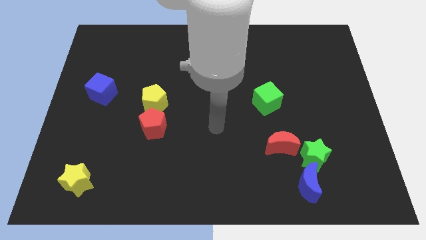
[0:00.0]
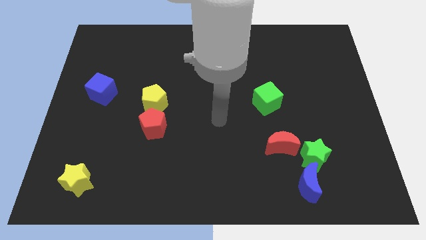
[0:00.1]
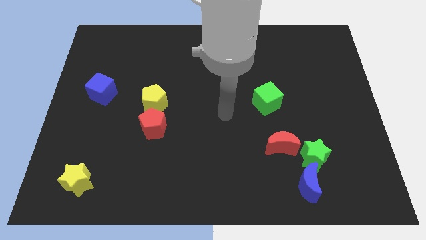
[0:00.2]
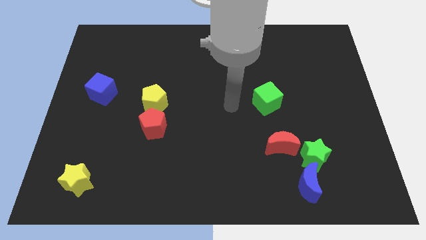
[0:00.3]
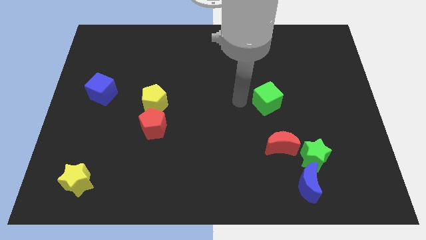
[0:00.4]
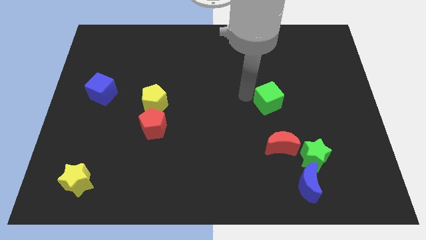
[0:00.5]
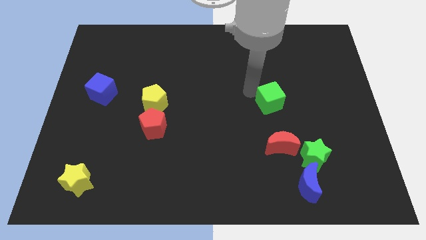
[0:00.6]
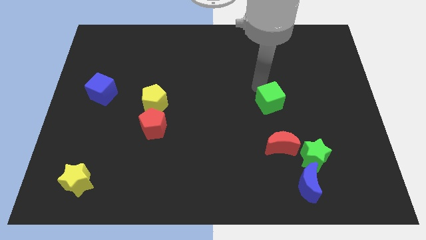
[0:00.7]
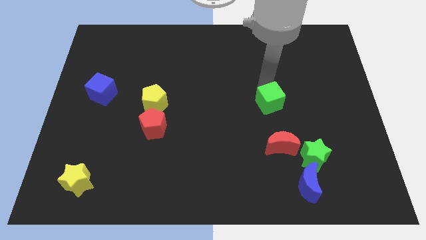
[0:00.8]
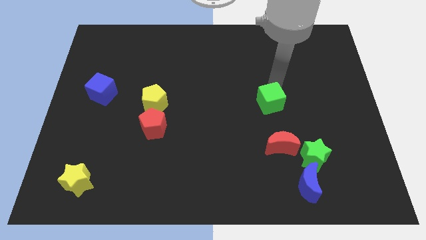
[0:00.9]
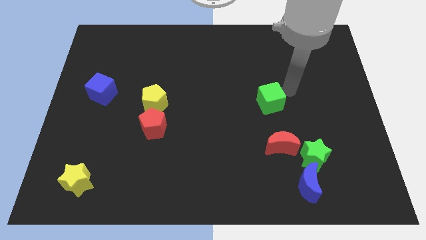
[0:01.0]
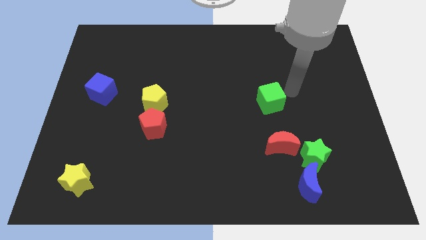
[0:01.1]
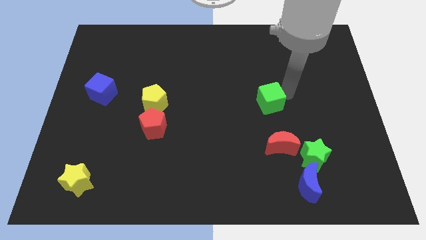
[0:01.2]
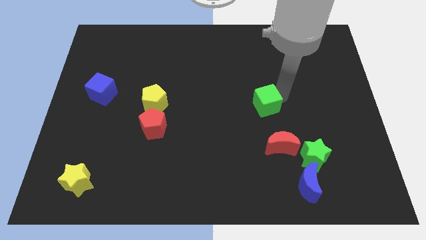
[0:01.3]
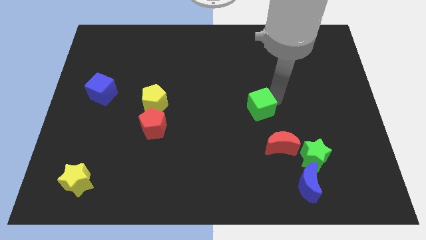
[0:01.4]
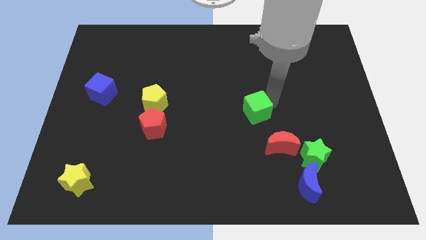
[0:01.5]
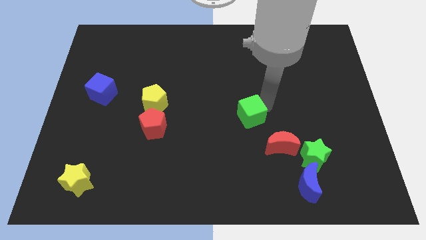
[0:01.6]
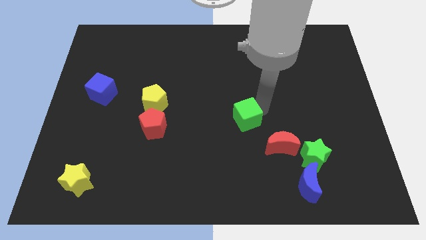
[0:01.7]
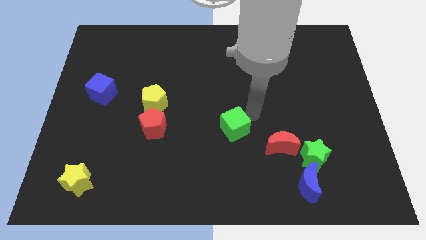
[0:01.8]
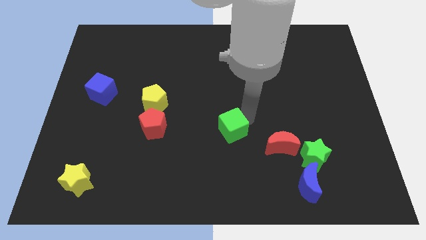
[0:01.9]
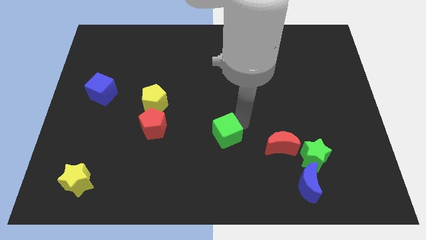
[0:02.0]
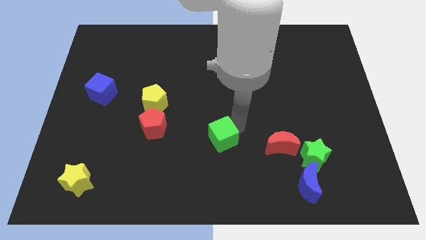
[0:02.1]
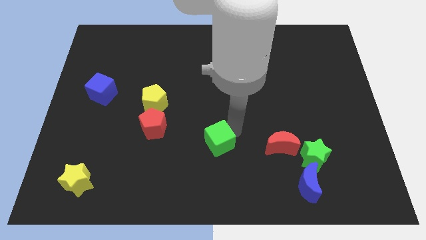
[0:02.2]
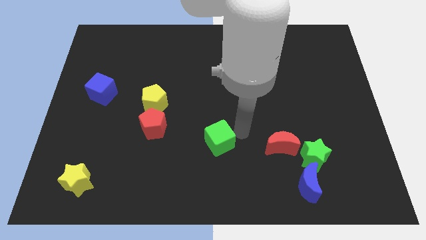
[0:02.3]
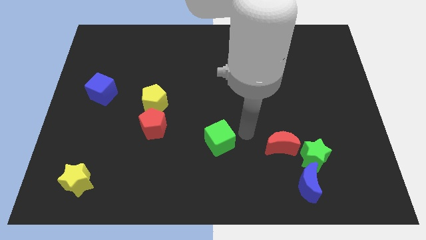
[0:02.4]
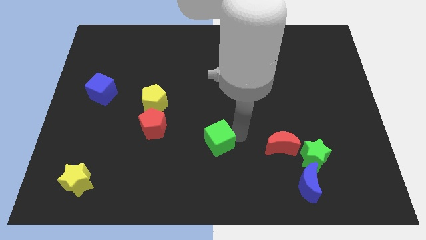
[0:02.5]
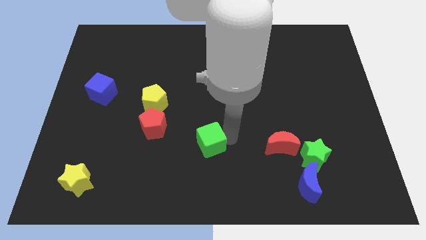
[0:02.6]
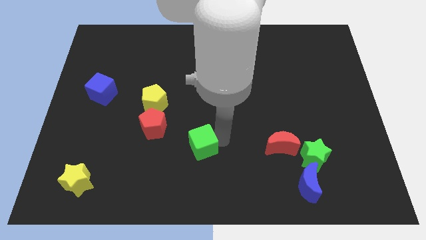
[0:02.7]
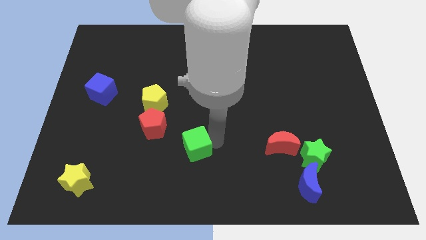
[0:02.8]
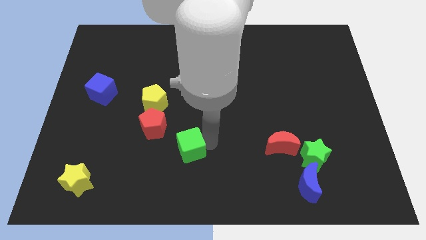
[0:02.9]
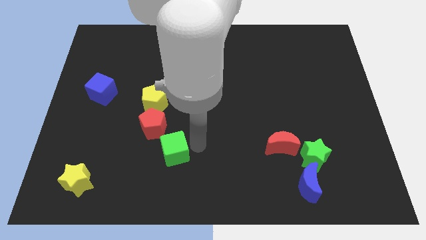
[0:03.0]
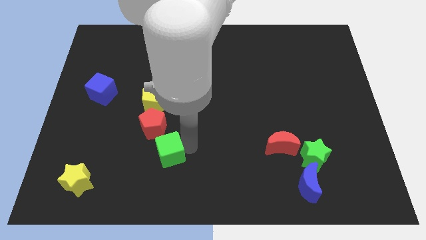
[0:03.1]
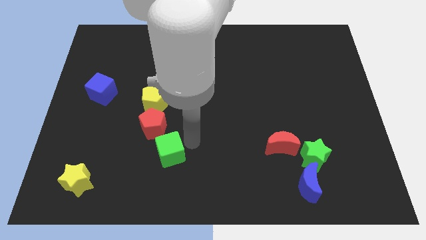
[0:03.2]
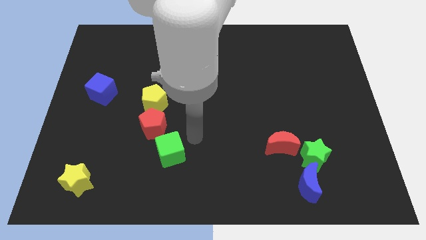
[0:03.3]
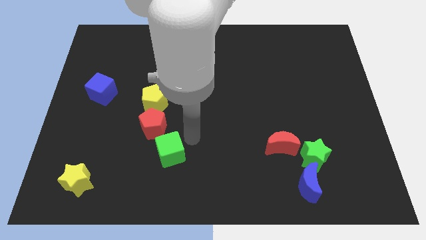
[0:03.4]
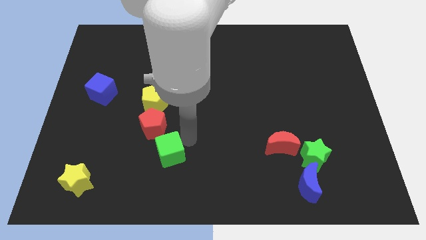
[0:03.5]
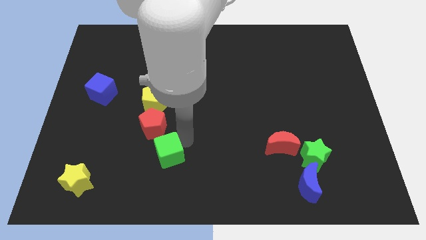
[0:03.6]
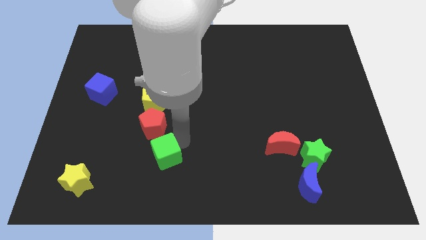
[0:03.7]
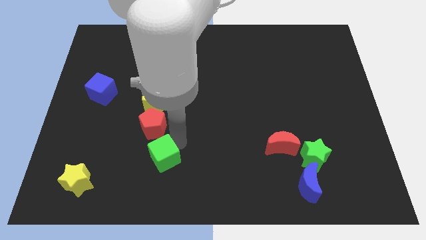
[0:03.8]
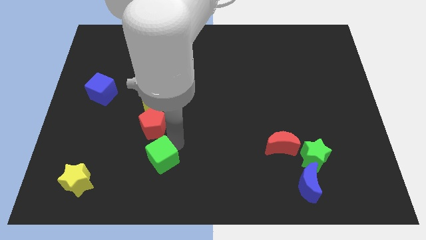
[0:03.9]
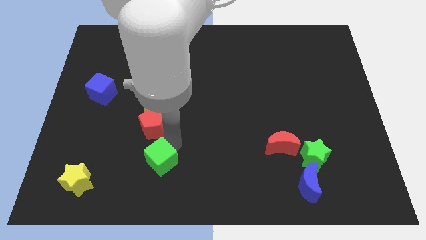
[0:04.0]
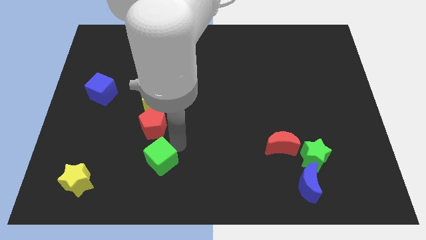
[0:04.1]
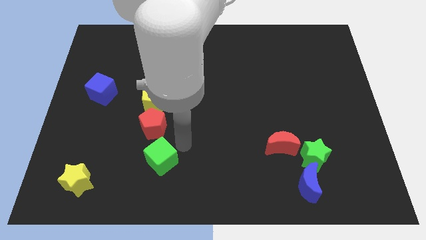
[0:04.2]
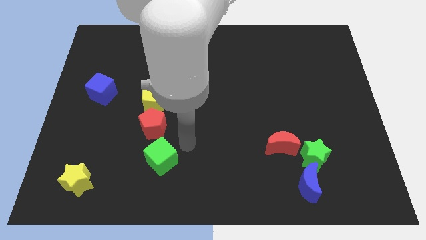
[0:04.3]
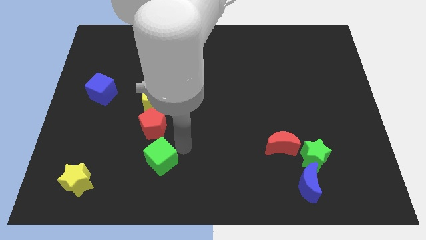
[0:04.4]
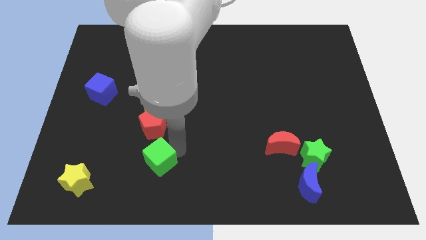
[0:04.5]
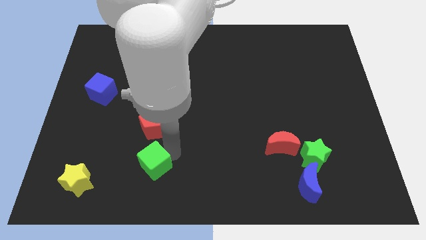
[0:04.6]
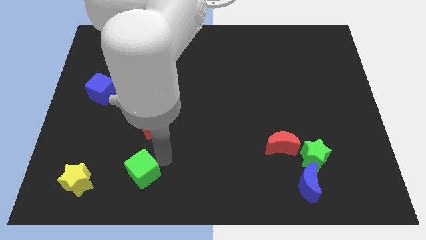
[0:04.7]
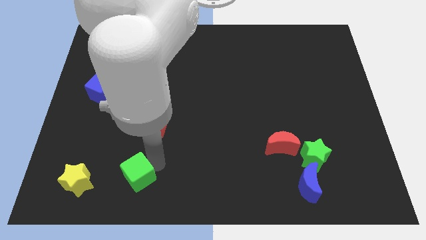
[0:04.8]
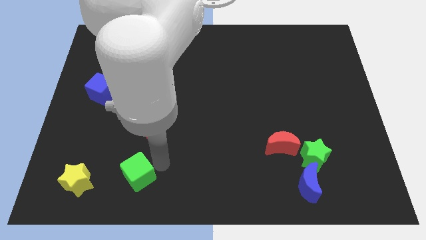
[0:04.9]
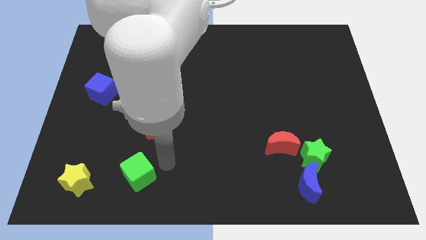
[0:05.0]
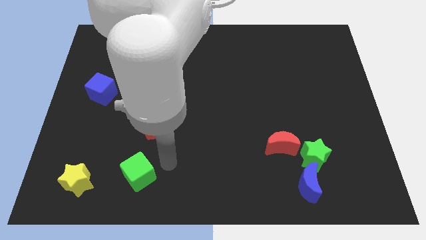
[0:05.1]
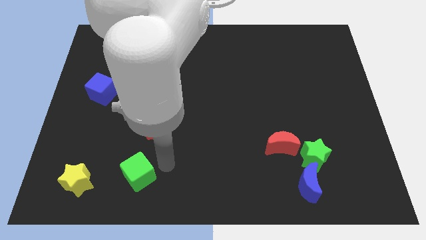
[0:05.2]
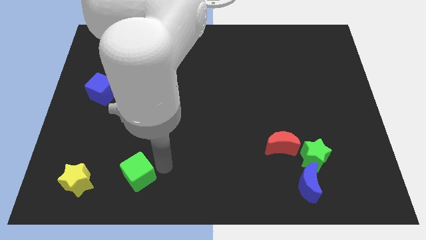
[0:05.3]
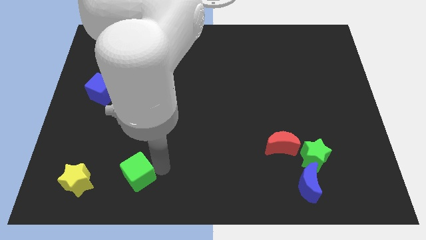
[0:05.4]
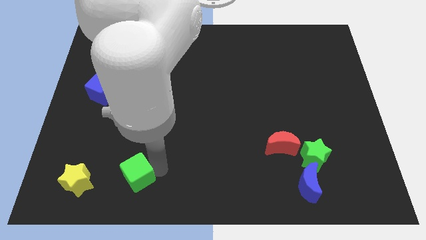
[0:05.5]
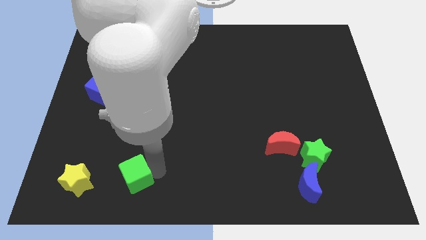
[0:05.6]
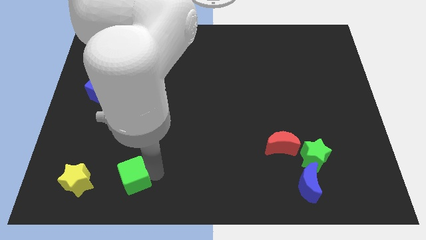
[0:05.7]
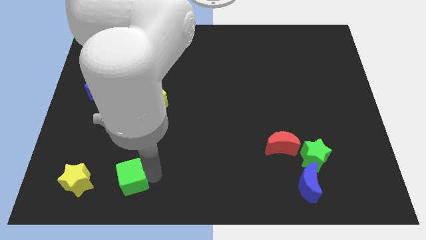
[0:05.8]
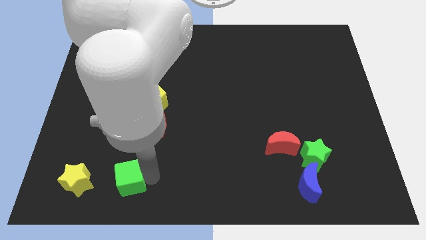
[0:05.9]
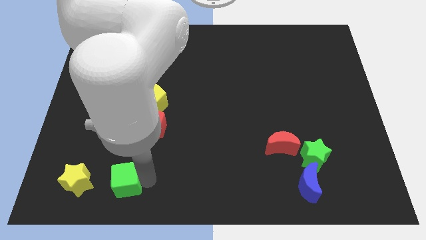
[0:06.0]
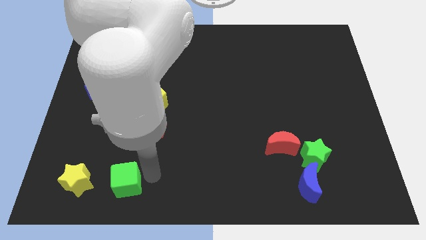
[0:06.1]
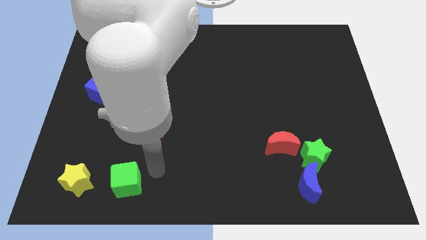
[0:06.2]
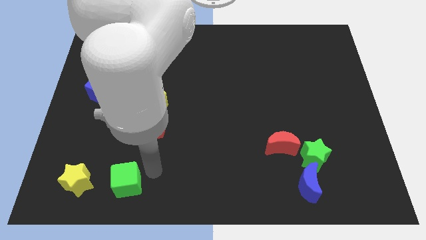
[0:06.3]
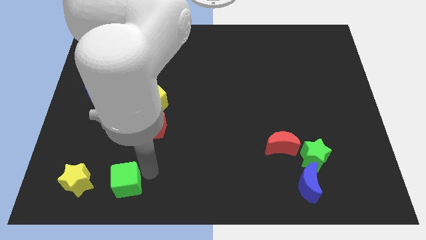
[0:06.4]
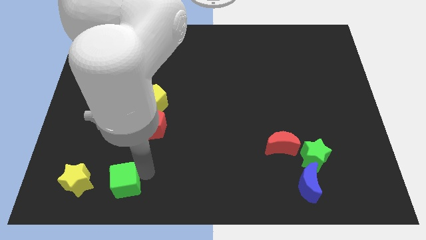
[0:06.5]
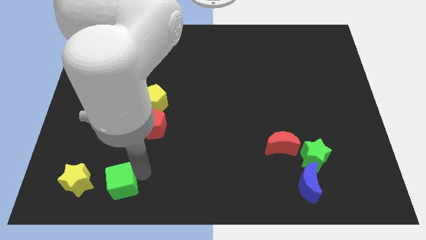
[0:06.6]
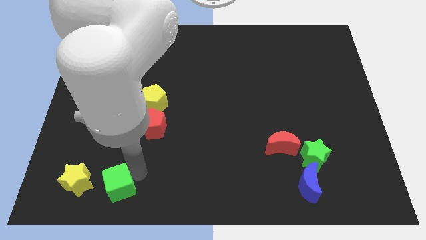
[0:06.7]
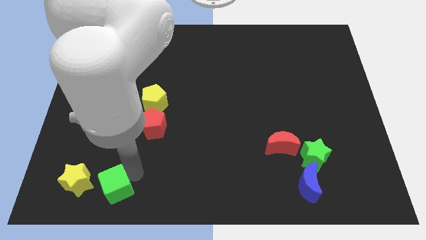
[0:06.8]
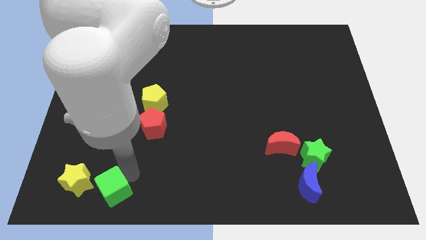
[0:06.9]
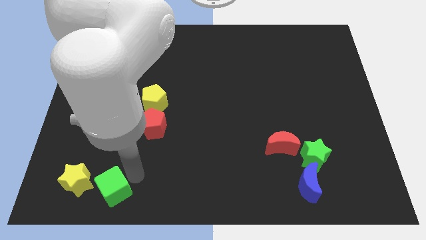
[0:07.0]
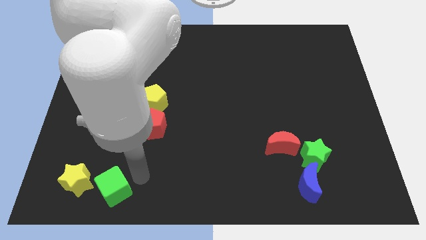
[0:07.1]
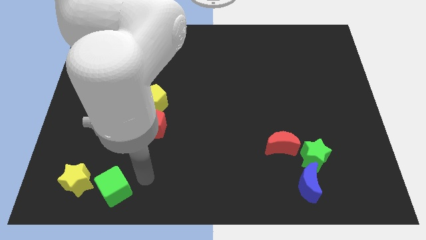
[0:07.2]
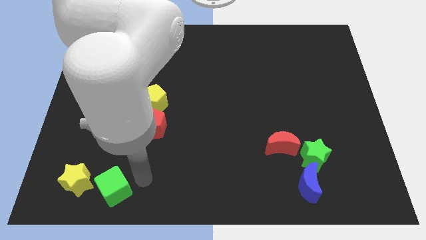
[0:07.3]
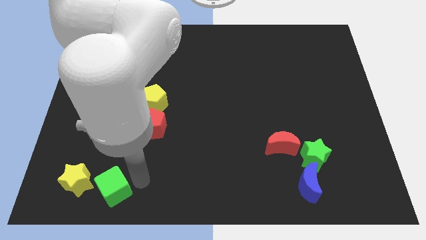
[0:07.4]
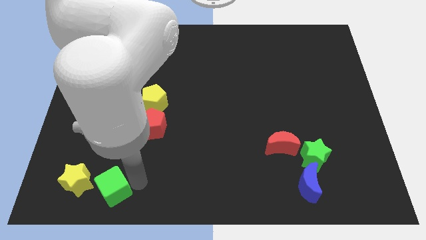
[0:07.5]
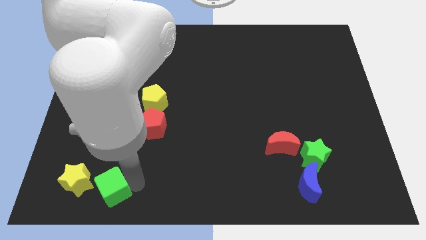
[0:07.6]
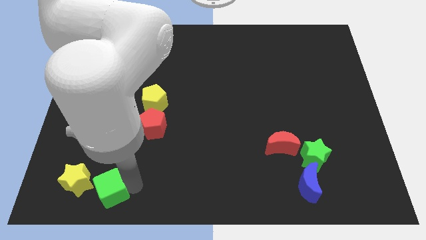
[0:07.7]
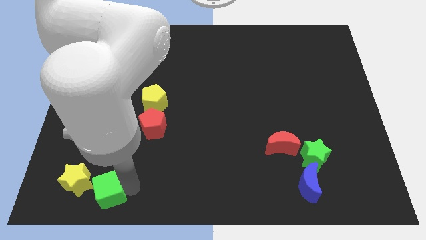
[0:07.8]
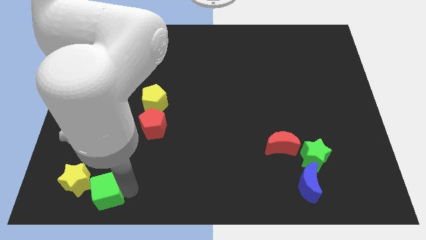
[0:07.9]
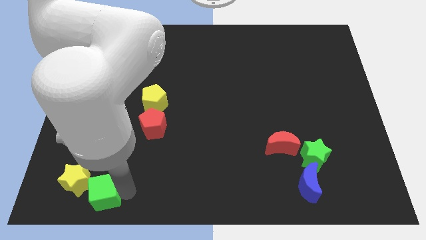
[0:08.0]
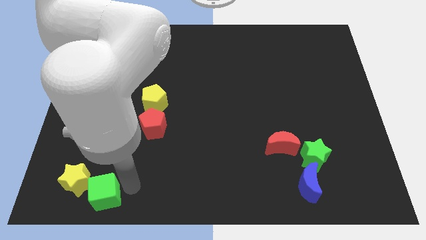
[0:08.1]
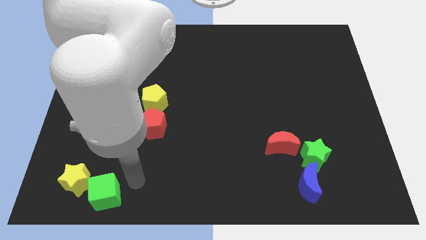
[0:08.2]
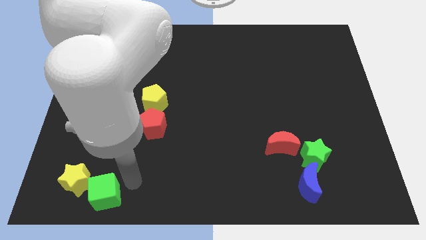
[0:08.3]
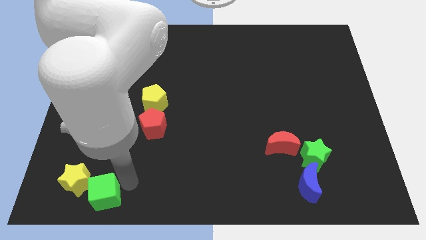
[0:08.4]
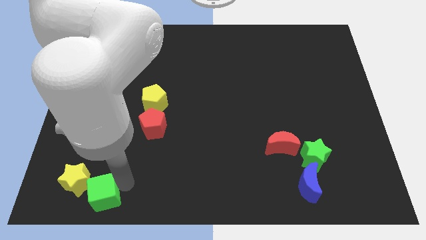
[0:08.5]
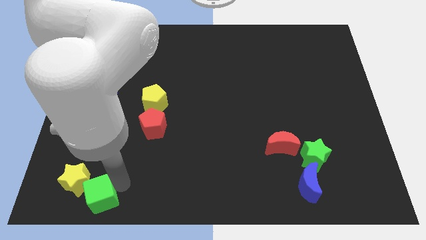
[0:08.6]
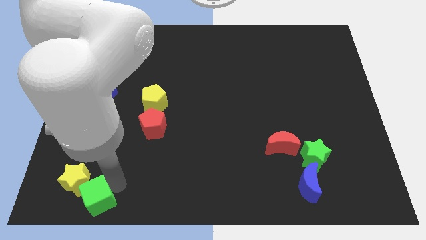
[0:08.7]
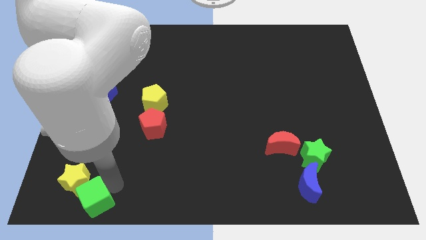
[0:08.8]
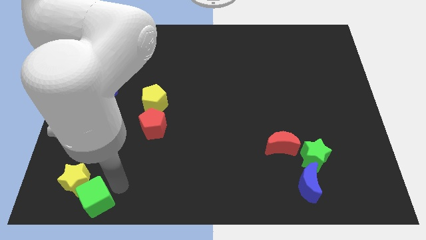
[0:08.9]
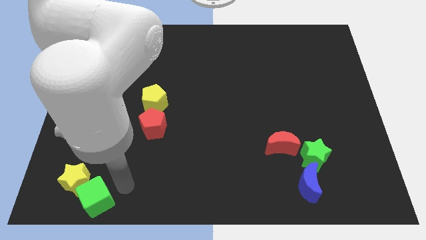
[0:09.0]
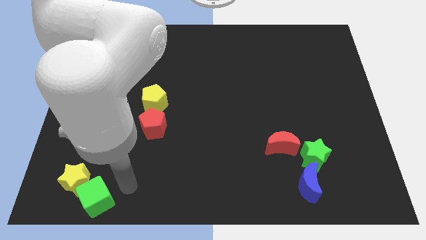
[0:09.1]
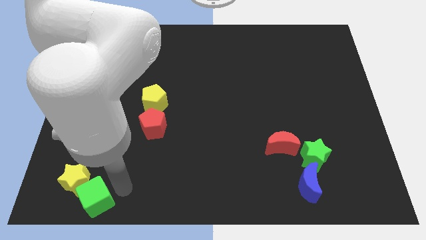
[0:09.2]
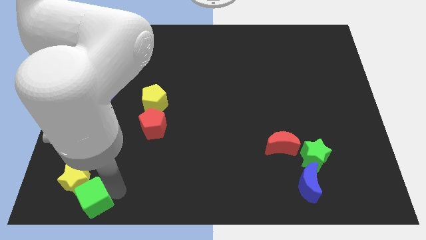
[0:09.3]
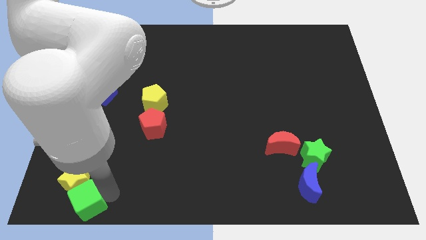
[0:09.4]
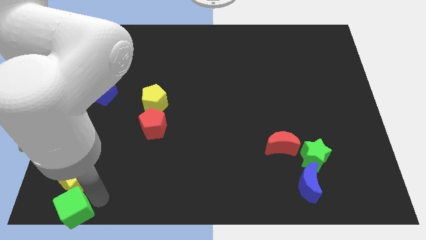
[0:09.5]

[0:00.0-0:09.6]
slide the green cube to the bottom left
